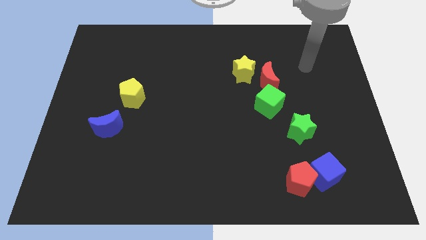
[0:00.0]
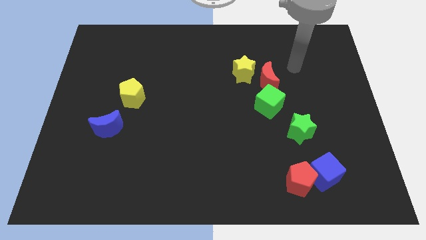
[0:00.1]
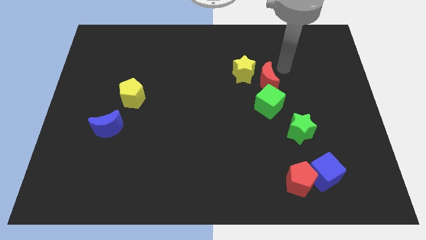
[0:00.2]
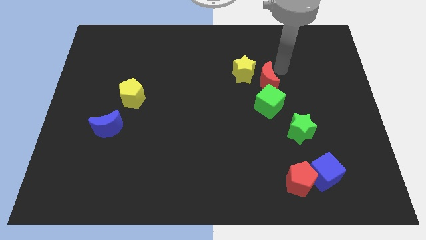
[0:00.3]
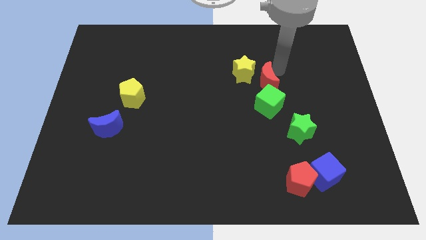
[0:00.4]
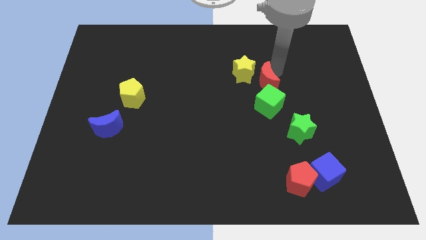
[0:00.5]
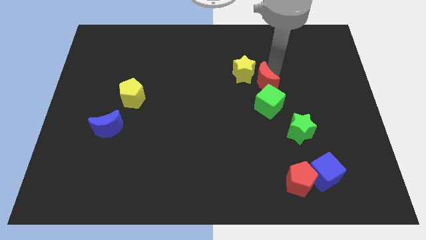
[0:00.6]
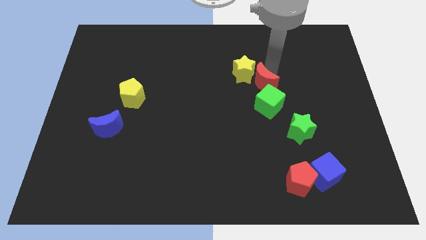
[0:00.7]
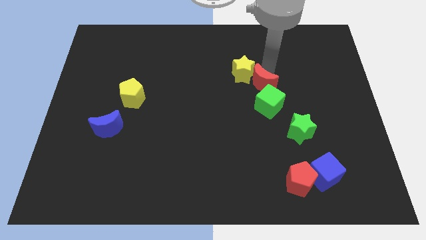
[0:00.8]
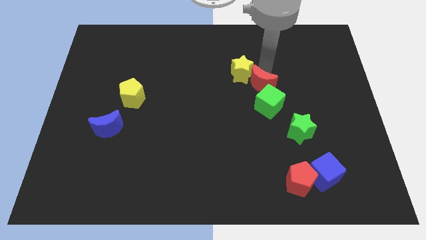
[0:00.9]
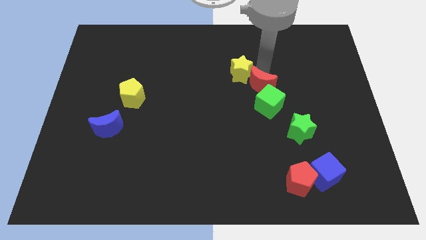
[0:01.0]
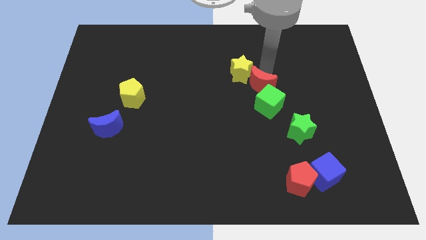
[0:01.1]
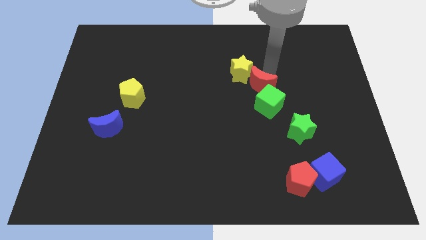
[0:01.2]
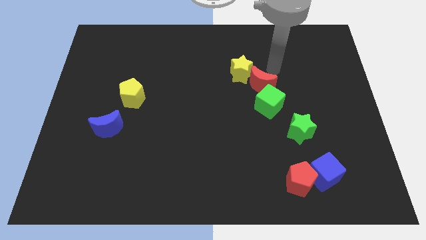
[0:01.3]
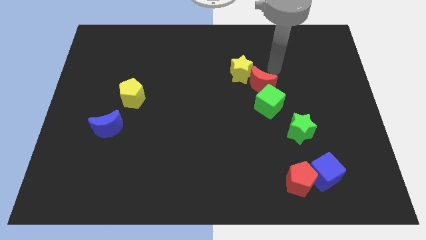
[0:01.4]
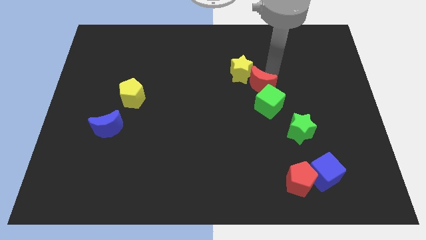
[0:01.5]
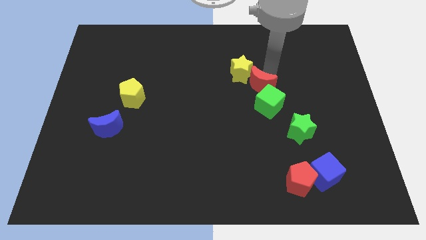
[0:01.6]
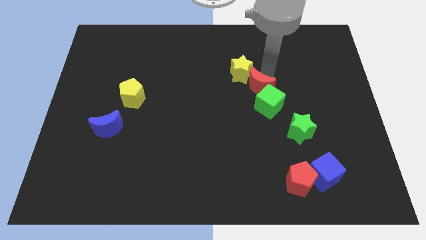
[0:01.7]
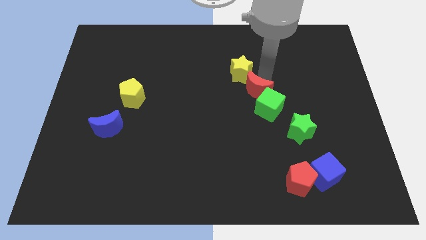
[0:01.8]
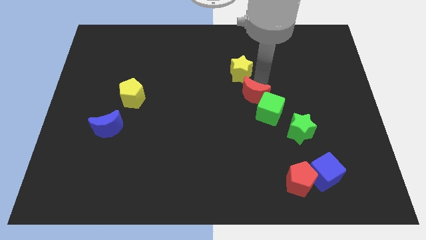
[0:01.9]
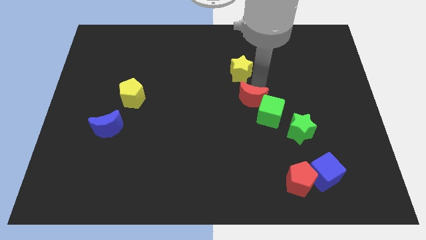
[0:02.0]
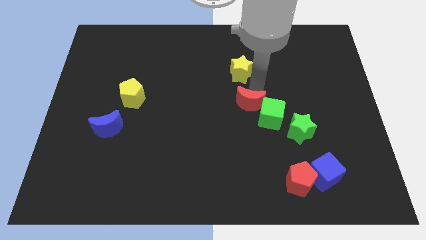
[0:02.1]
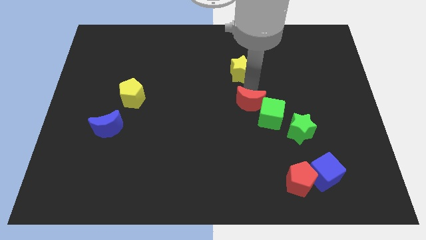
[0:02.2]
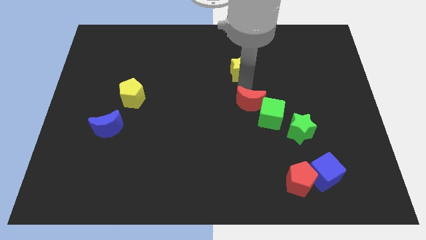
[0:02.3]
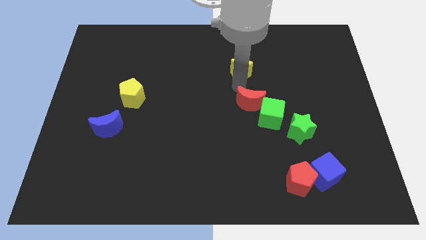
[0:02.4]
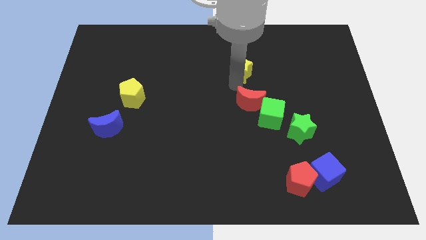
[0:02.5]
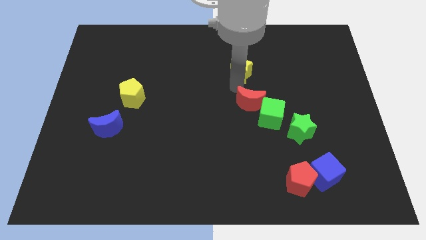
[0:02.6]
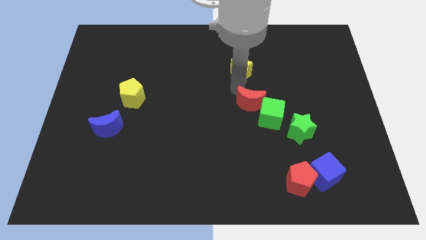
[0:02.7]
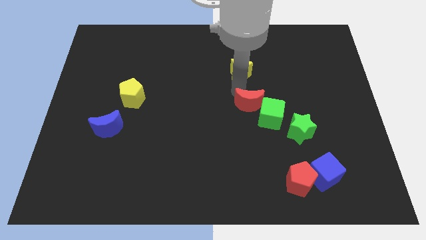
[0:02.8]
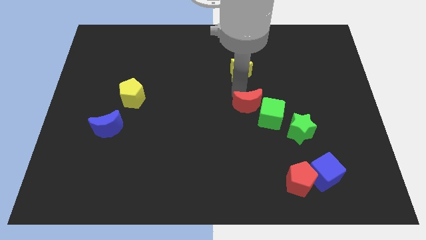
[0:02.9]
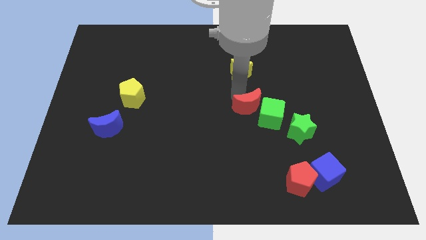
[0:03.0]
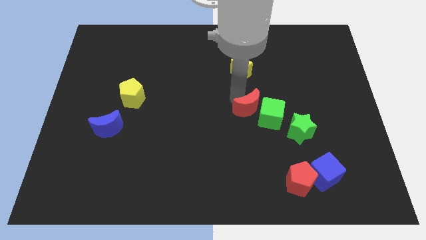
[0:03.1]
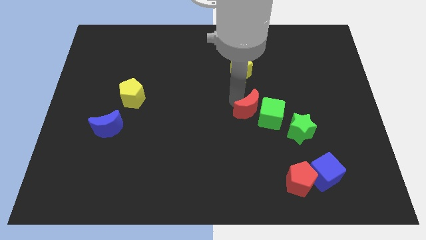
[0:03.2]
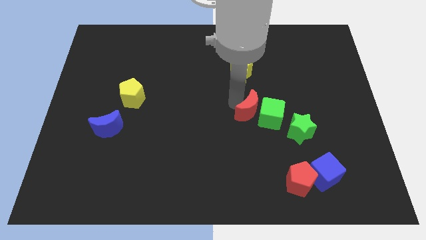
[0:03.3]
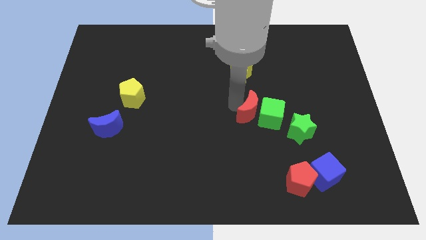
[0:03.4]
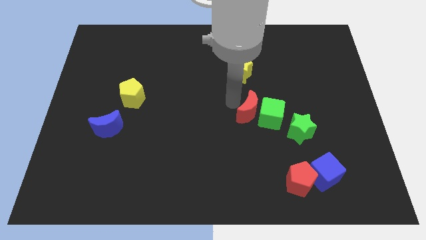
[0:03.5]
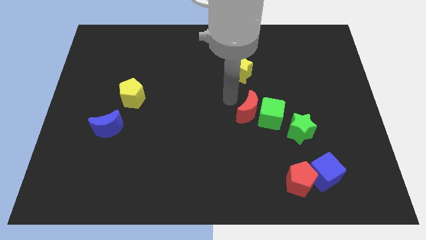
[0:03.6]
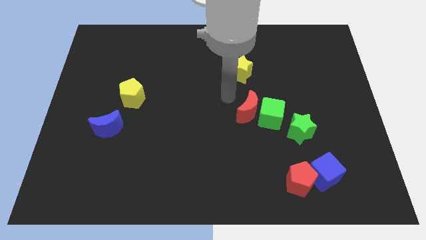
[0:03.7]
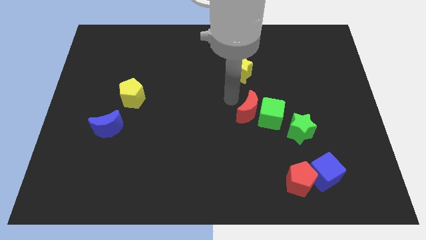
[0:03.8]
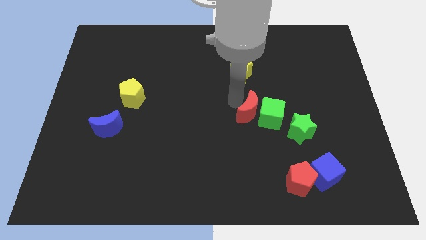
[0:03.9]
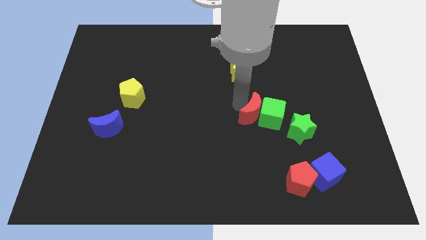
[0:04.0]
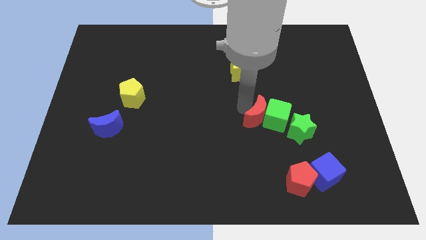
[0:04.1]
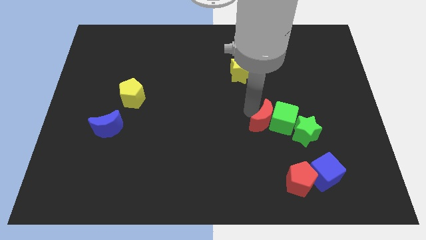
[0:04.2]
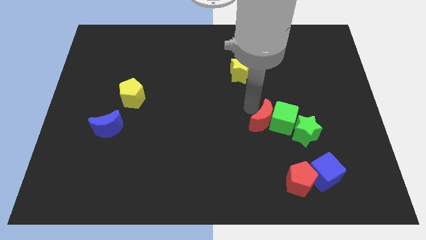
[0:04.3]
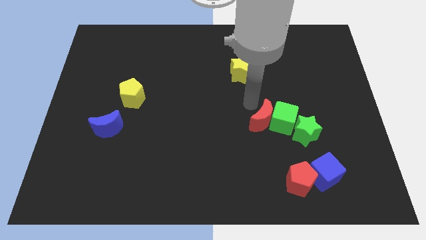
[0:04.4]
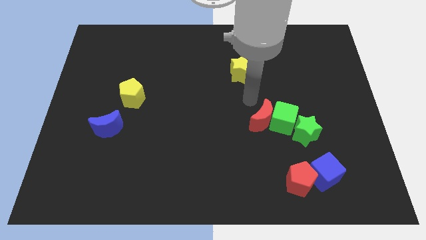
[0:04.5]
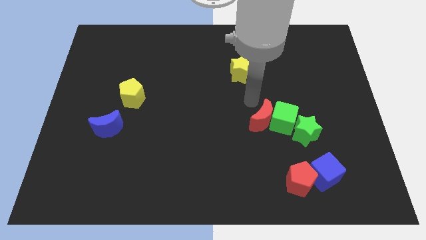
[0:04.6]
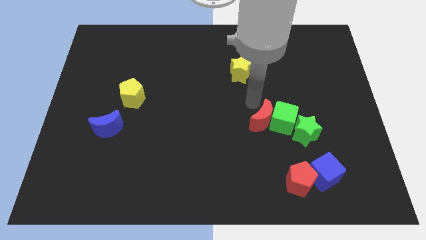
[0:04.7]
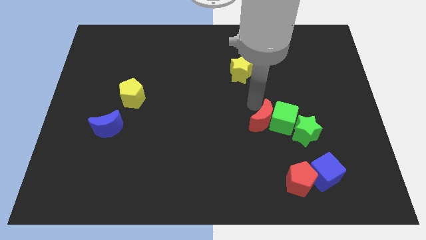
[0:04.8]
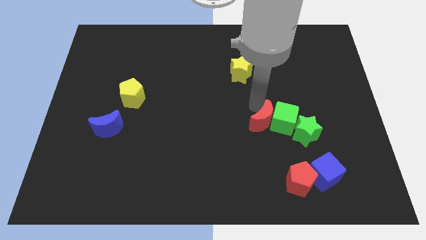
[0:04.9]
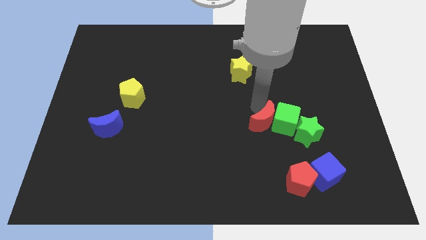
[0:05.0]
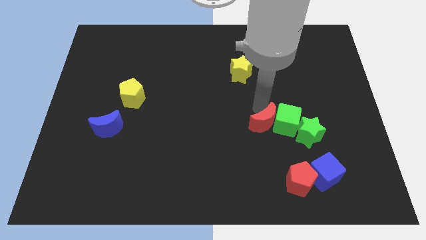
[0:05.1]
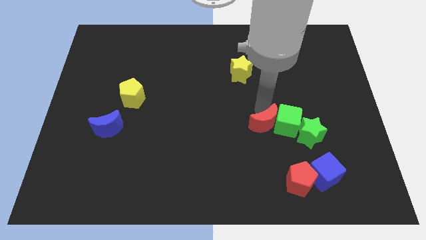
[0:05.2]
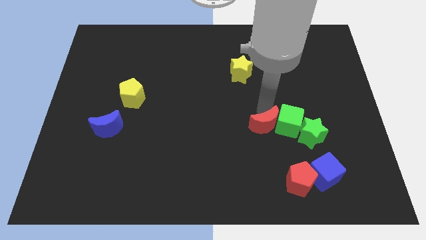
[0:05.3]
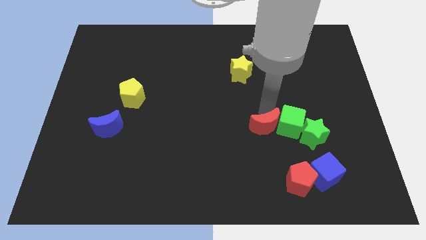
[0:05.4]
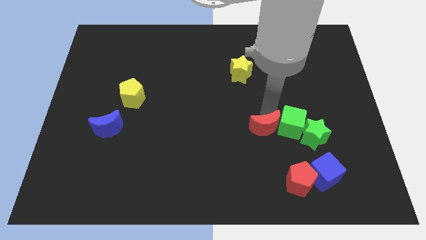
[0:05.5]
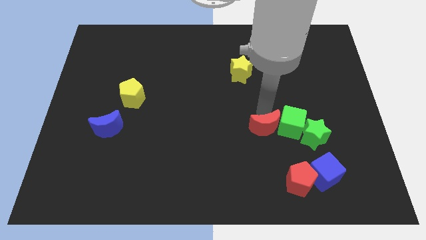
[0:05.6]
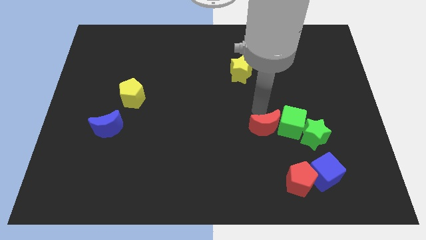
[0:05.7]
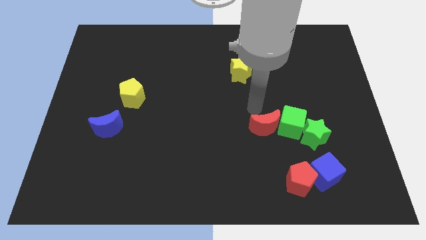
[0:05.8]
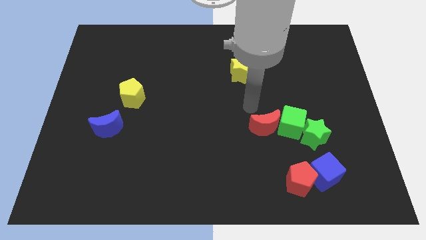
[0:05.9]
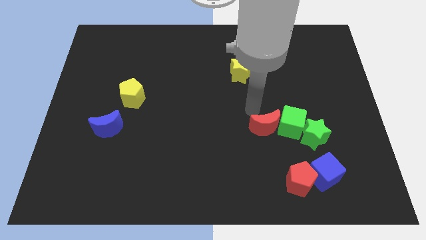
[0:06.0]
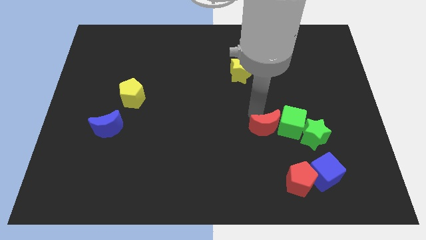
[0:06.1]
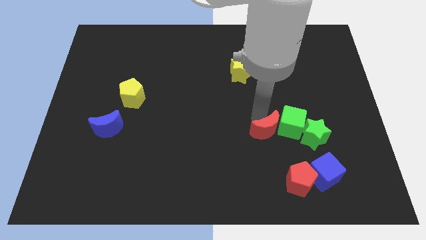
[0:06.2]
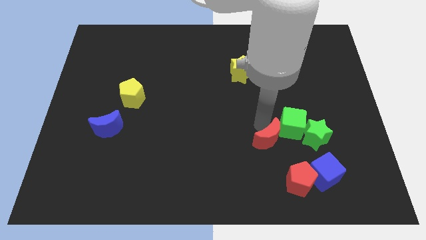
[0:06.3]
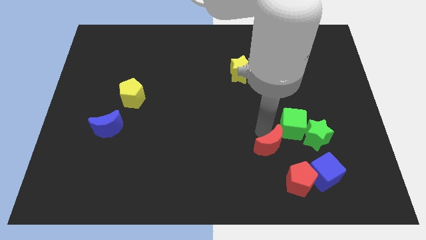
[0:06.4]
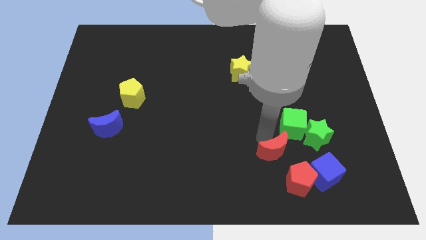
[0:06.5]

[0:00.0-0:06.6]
put the red moon to the bottom left of the green star

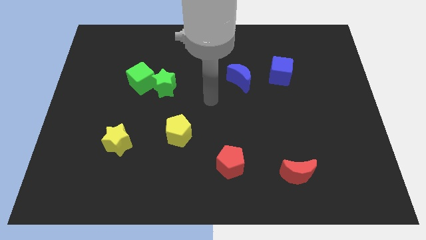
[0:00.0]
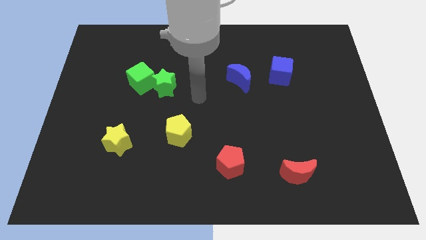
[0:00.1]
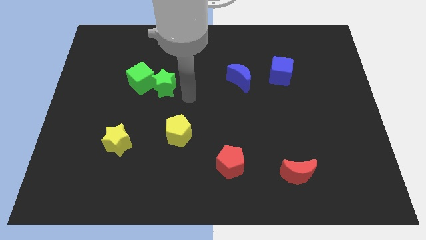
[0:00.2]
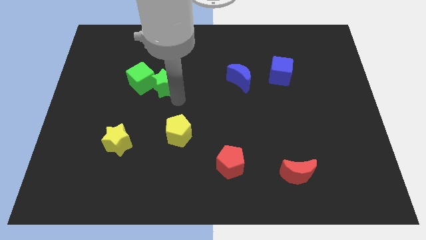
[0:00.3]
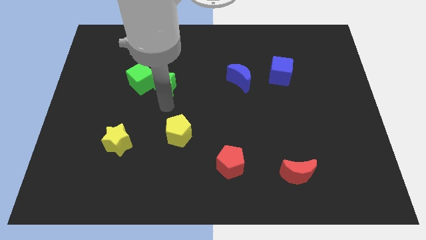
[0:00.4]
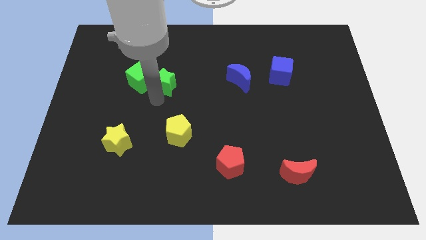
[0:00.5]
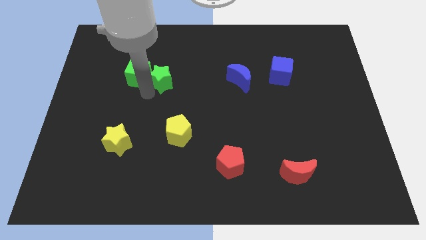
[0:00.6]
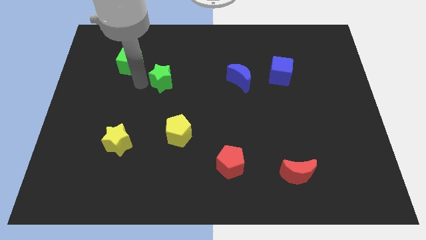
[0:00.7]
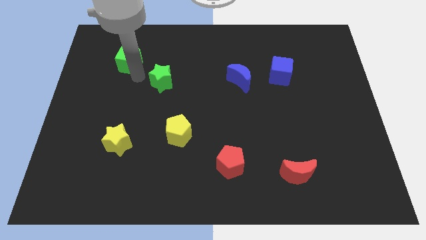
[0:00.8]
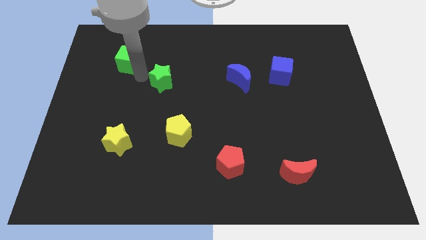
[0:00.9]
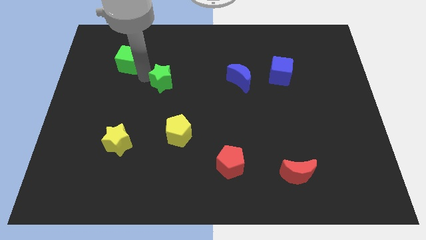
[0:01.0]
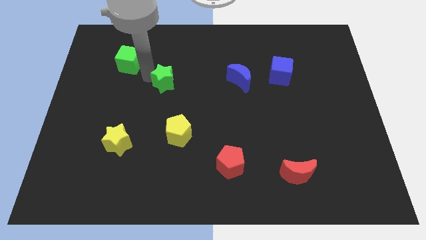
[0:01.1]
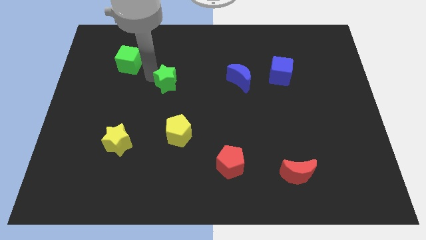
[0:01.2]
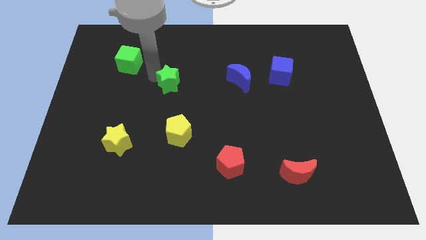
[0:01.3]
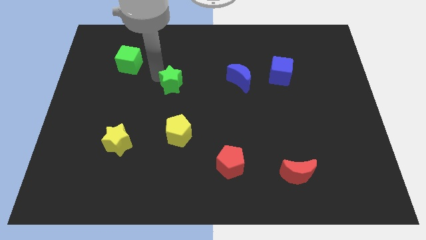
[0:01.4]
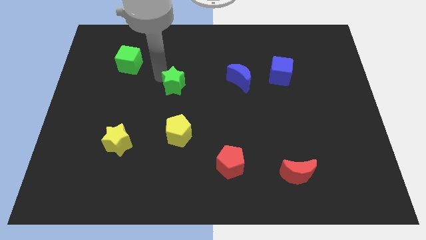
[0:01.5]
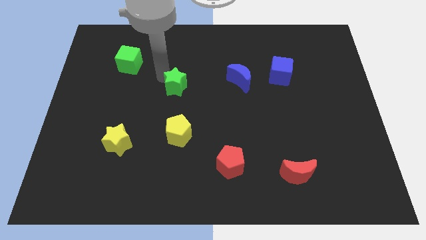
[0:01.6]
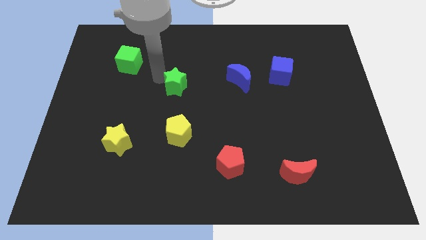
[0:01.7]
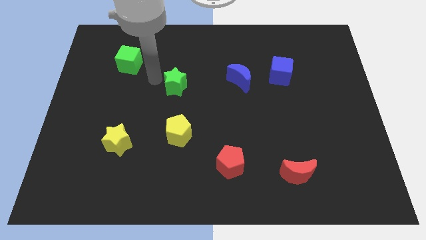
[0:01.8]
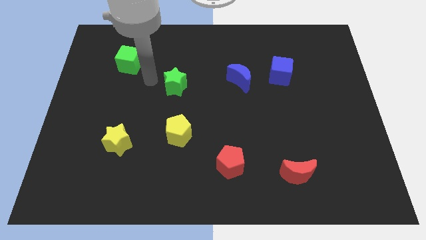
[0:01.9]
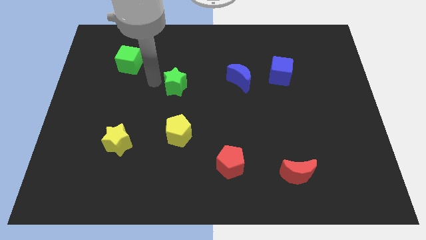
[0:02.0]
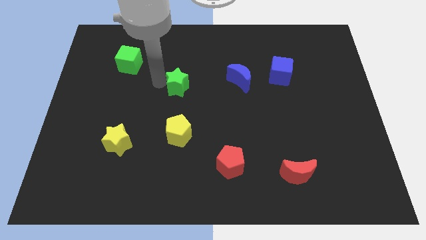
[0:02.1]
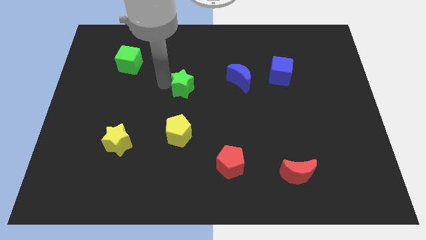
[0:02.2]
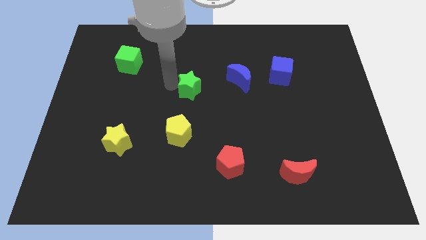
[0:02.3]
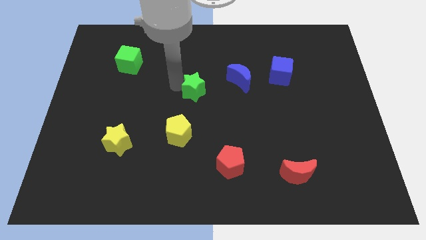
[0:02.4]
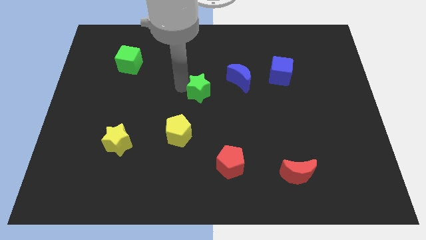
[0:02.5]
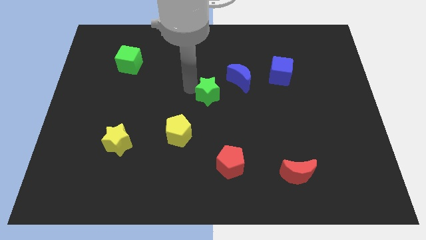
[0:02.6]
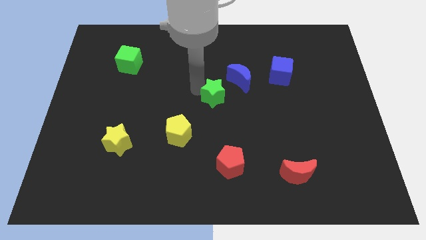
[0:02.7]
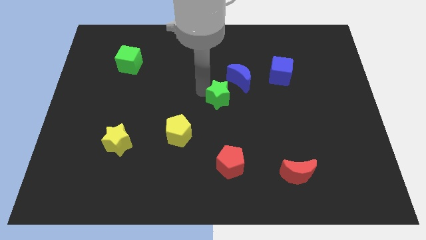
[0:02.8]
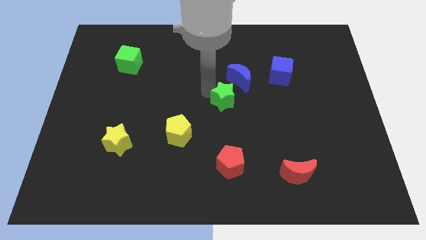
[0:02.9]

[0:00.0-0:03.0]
move the green star to the bottom side of the blue moon
